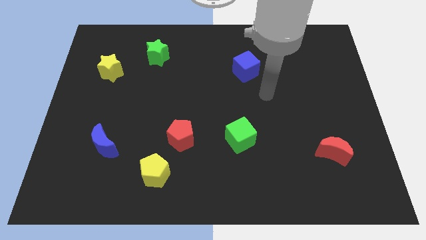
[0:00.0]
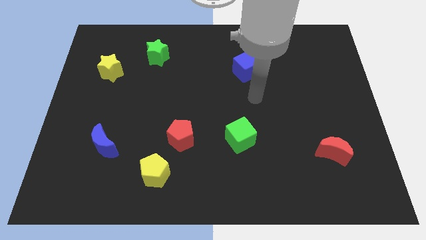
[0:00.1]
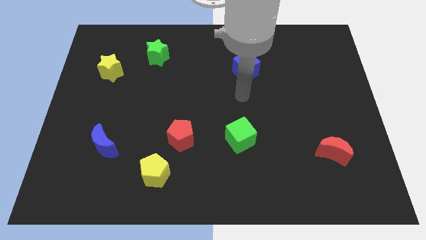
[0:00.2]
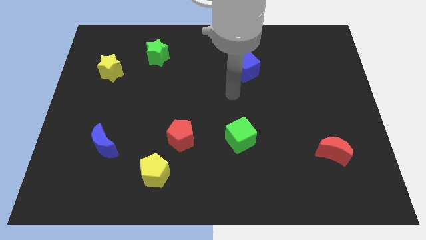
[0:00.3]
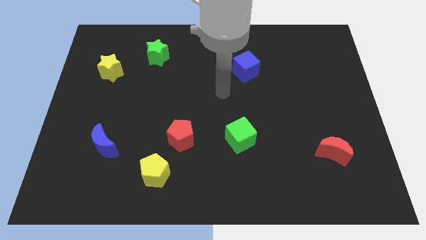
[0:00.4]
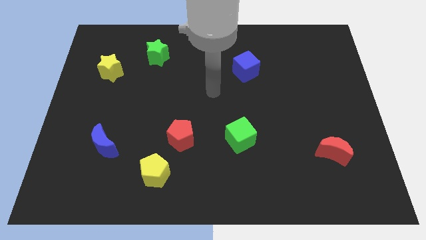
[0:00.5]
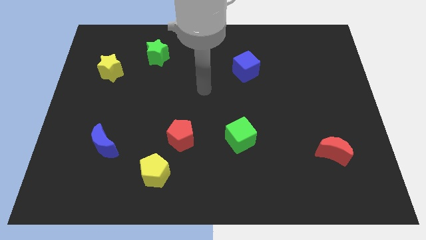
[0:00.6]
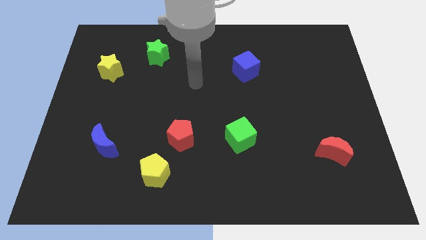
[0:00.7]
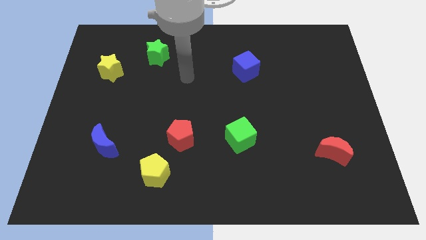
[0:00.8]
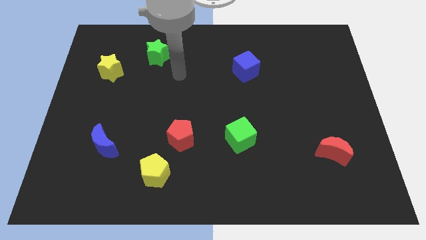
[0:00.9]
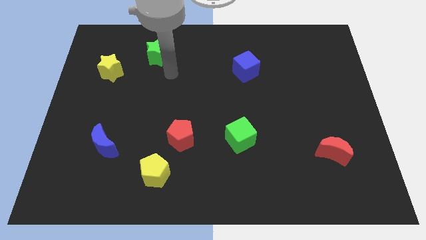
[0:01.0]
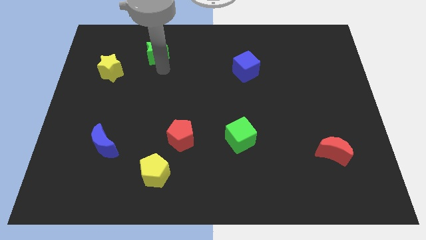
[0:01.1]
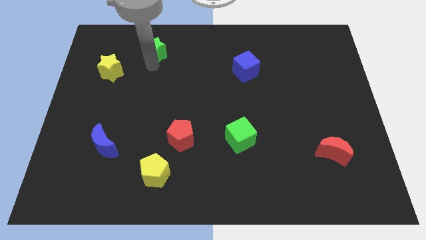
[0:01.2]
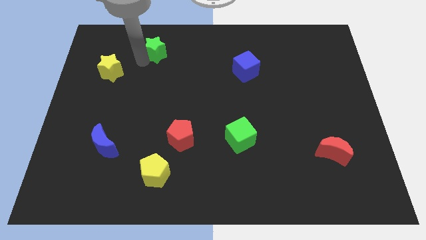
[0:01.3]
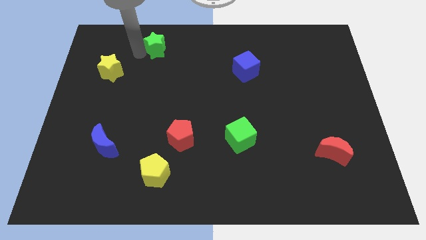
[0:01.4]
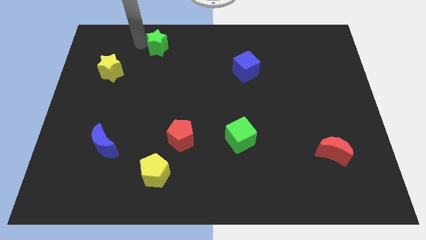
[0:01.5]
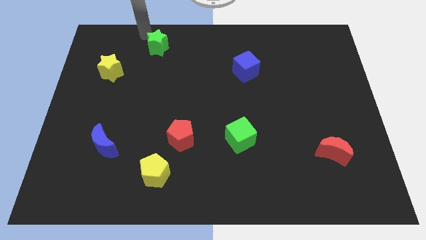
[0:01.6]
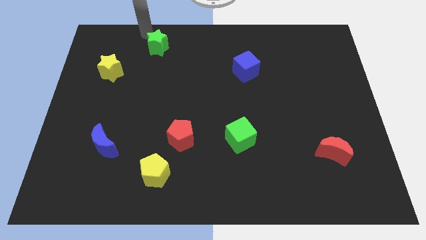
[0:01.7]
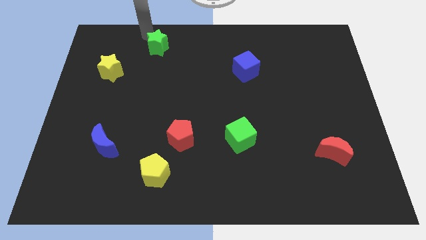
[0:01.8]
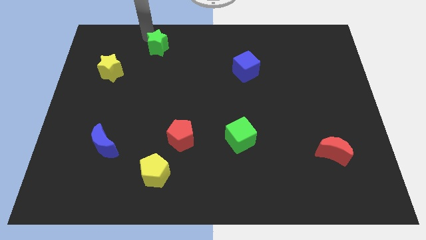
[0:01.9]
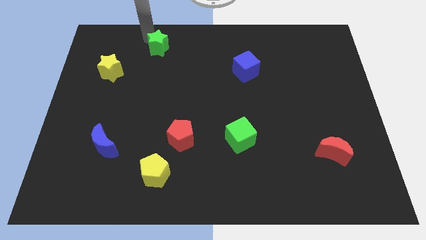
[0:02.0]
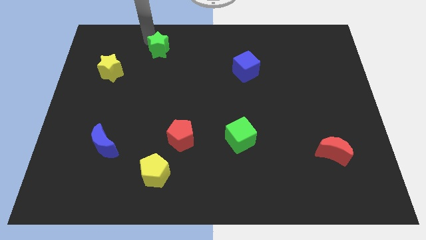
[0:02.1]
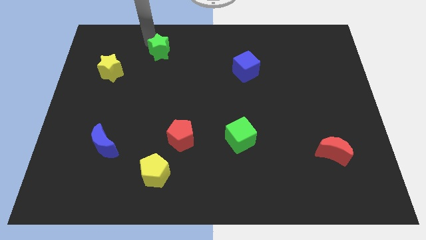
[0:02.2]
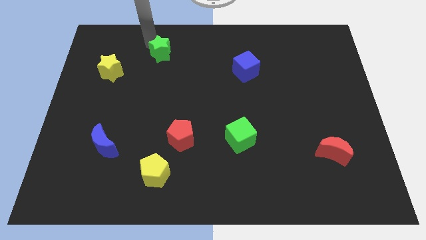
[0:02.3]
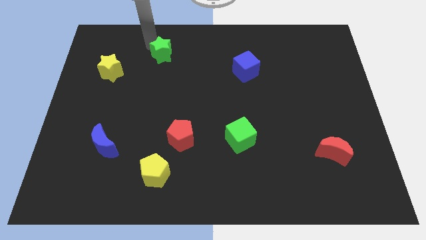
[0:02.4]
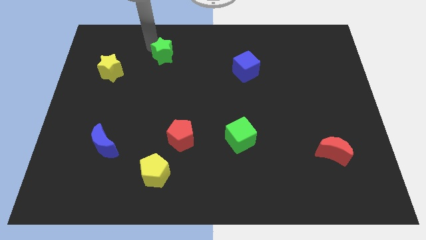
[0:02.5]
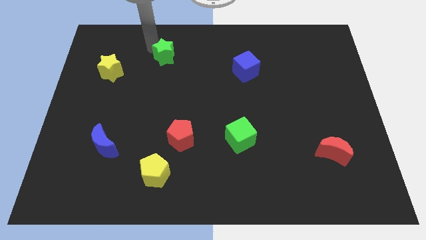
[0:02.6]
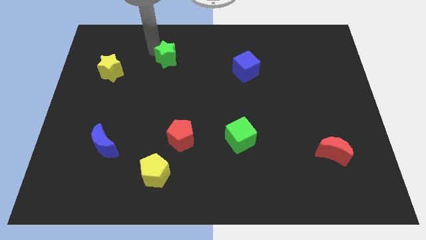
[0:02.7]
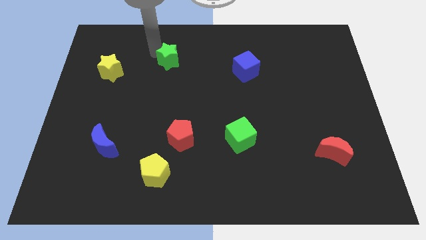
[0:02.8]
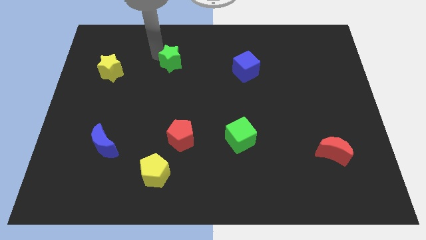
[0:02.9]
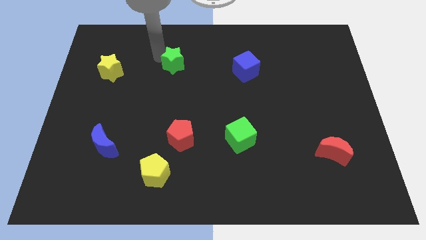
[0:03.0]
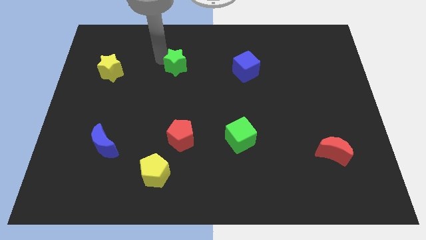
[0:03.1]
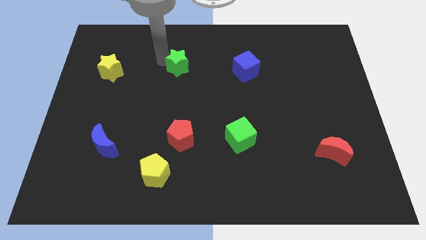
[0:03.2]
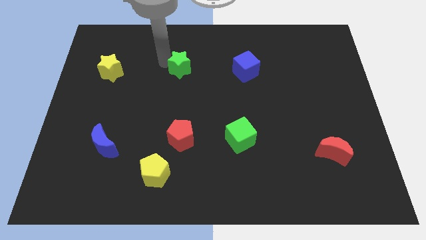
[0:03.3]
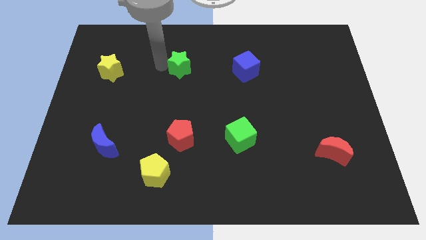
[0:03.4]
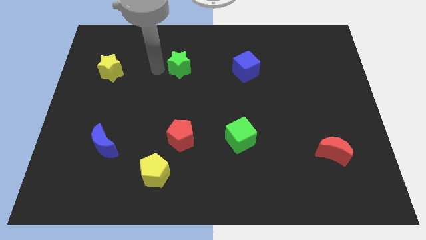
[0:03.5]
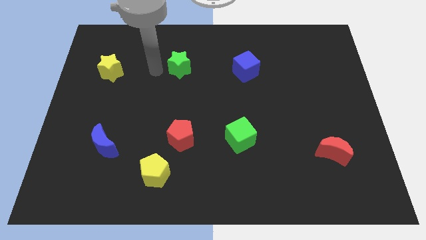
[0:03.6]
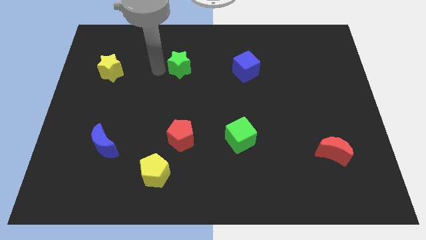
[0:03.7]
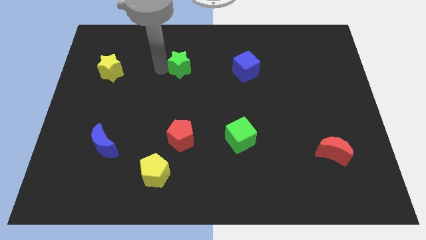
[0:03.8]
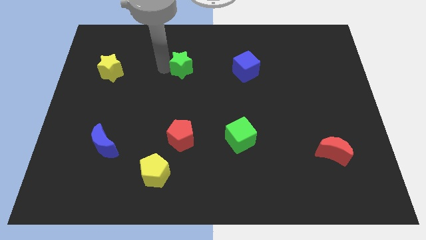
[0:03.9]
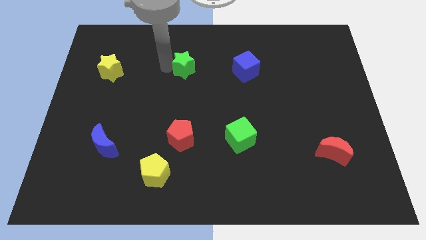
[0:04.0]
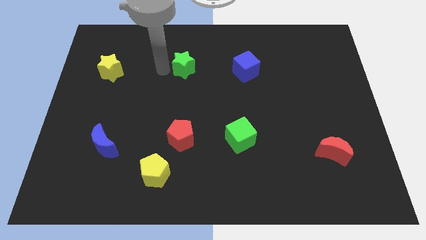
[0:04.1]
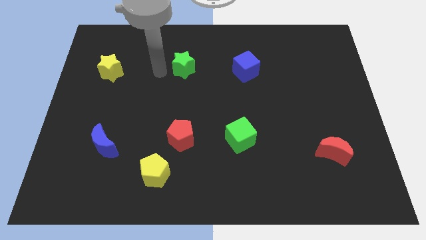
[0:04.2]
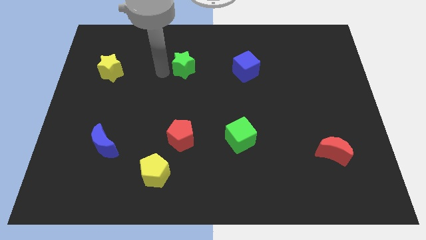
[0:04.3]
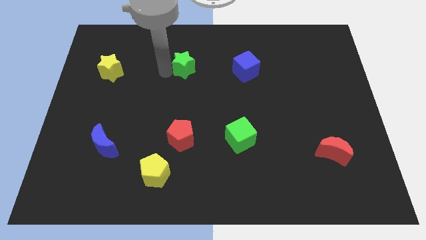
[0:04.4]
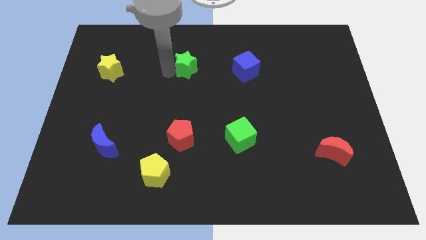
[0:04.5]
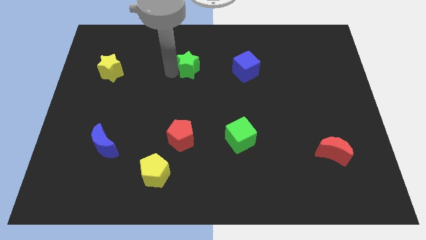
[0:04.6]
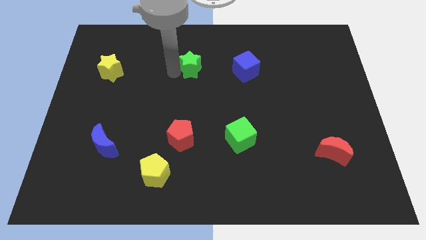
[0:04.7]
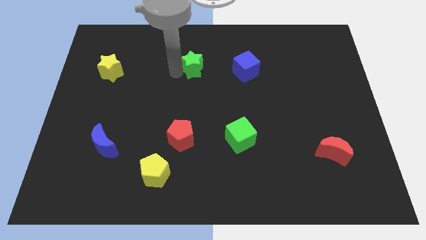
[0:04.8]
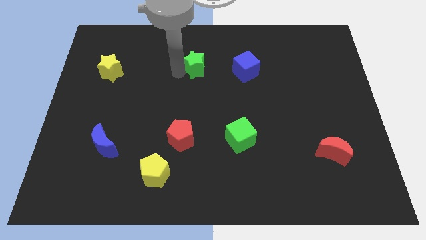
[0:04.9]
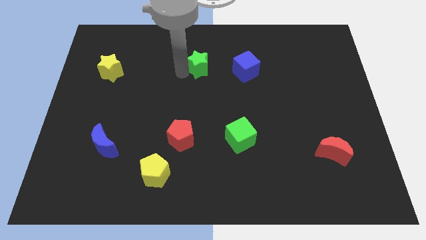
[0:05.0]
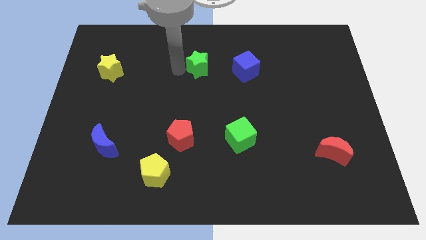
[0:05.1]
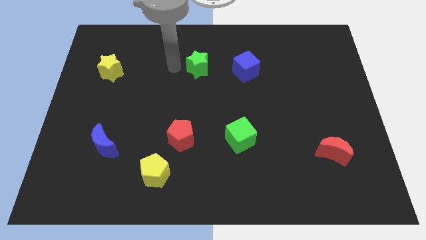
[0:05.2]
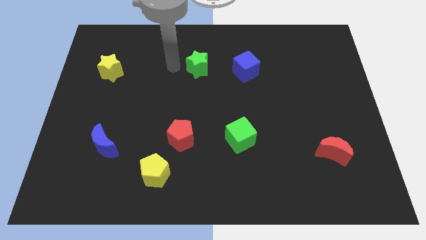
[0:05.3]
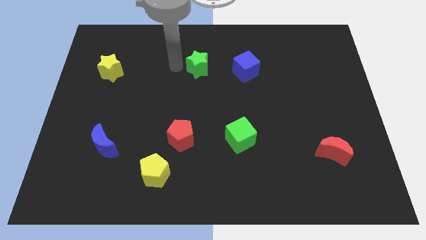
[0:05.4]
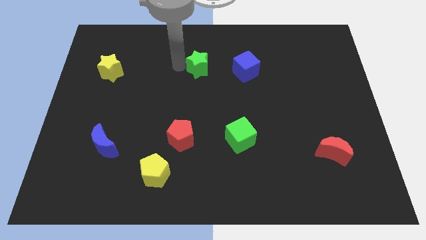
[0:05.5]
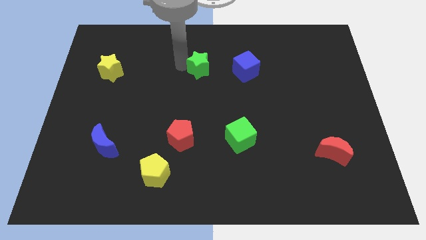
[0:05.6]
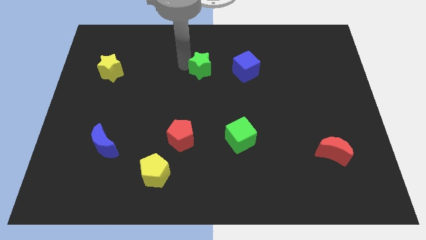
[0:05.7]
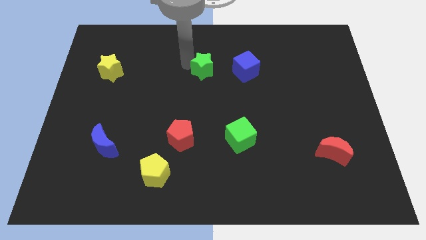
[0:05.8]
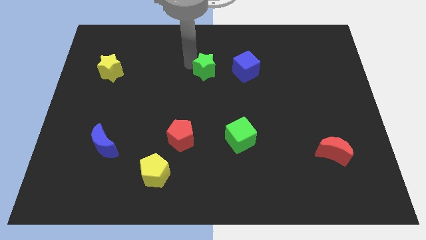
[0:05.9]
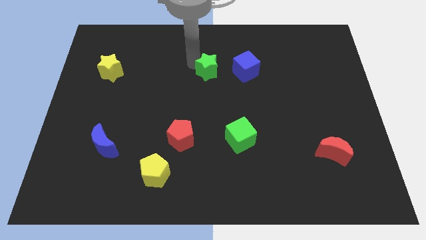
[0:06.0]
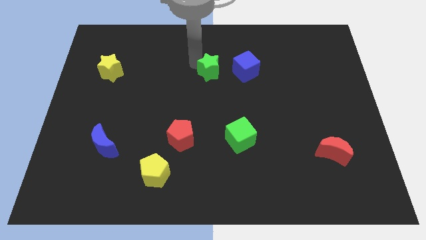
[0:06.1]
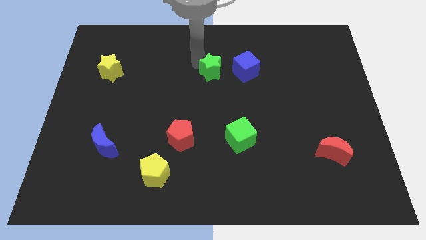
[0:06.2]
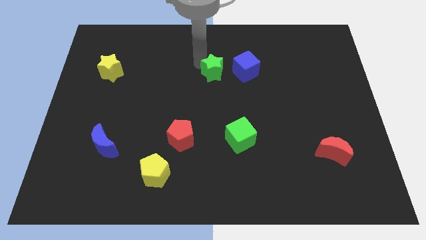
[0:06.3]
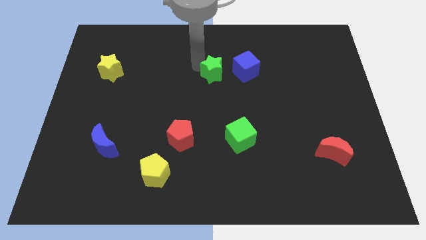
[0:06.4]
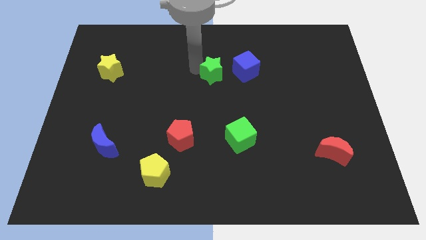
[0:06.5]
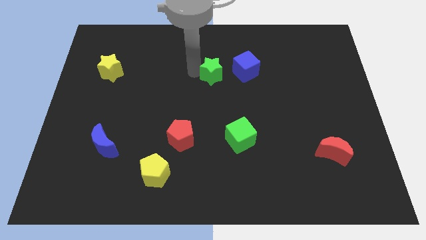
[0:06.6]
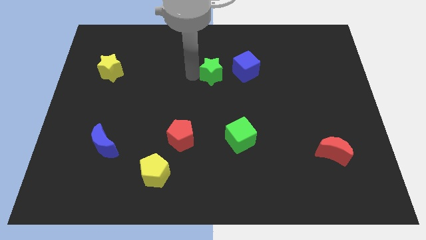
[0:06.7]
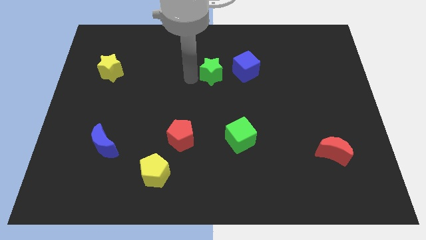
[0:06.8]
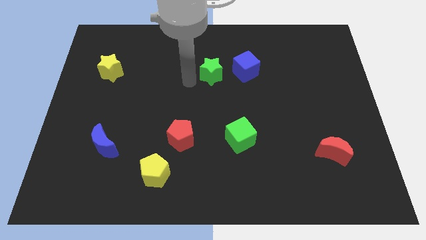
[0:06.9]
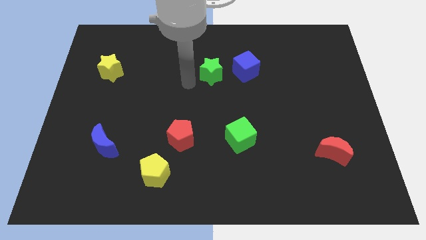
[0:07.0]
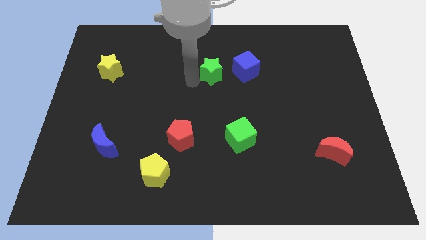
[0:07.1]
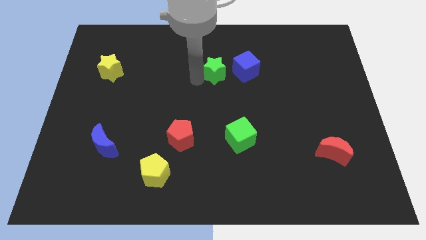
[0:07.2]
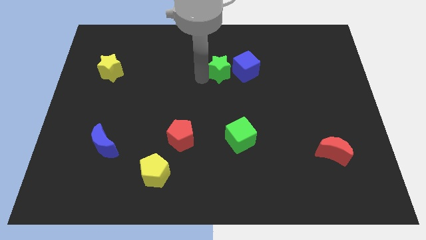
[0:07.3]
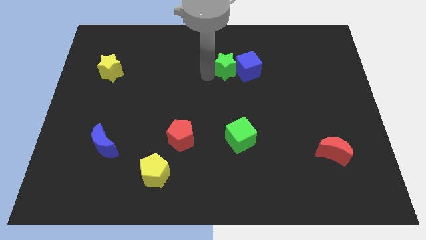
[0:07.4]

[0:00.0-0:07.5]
push the green star to the blue cube
